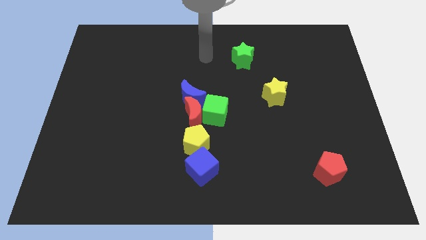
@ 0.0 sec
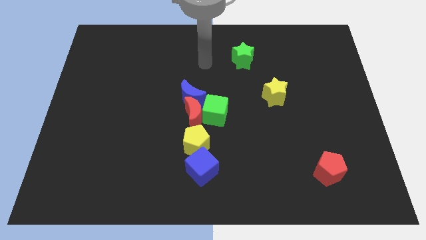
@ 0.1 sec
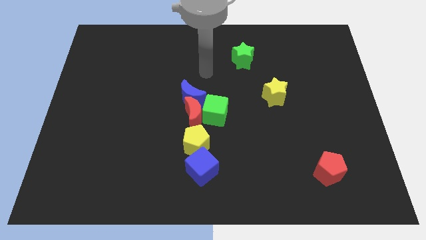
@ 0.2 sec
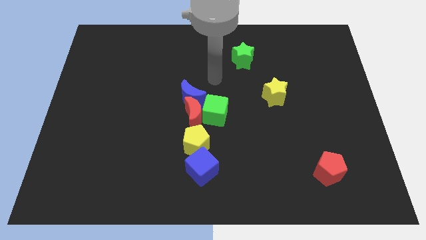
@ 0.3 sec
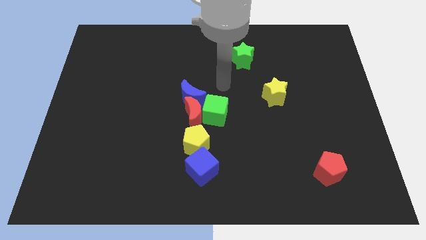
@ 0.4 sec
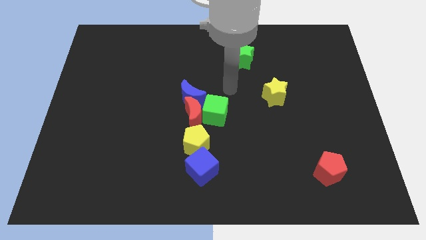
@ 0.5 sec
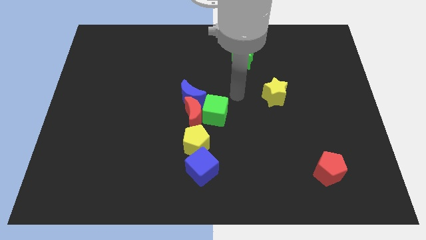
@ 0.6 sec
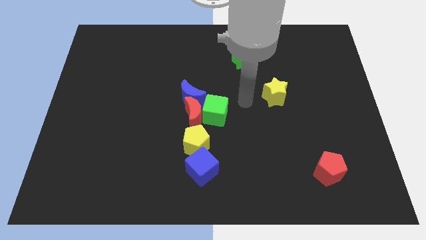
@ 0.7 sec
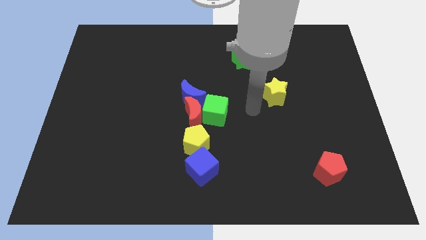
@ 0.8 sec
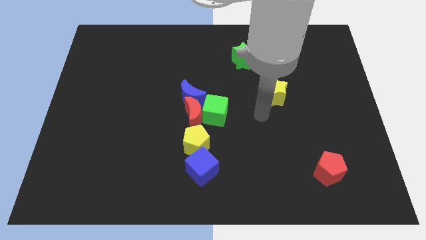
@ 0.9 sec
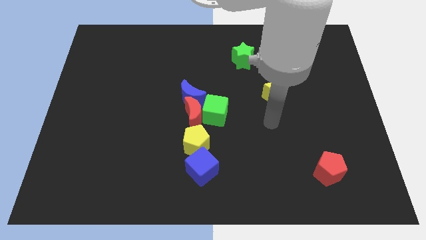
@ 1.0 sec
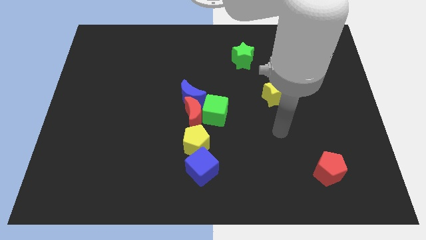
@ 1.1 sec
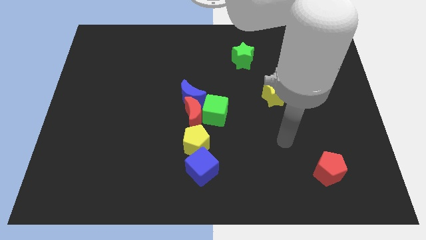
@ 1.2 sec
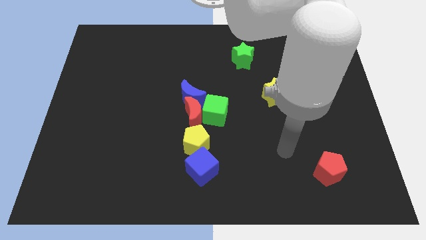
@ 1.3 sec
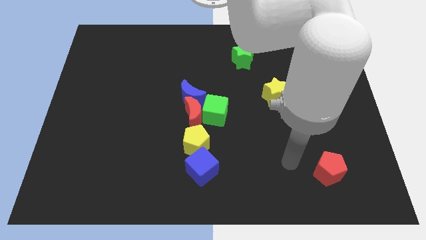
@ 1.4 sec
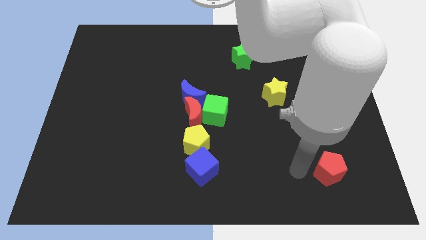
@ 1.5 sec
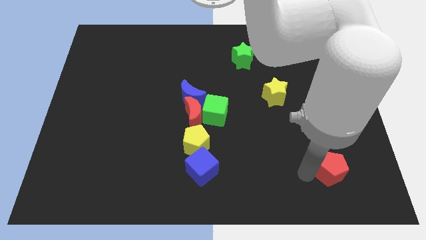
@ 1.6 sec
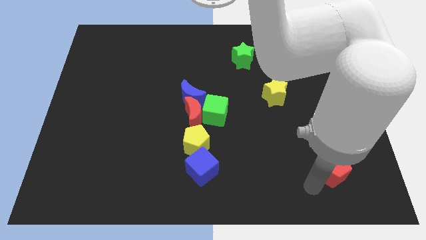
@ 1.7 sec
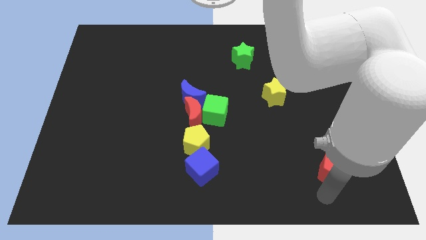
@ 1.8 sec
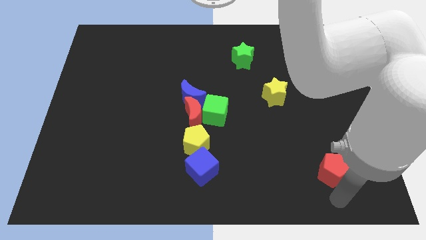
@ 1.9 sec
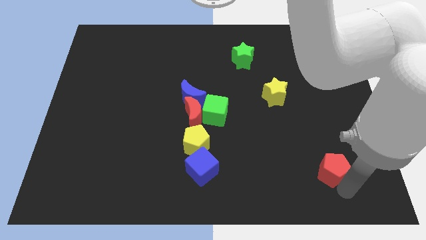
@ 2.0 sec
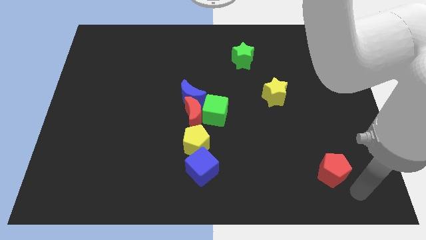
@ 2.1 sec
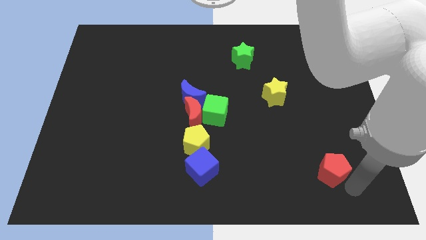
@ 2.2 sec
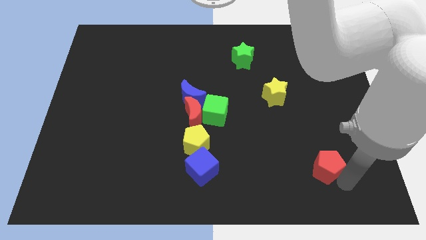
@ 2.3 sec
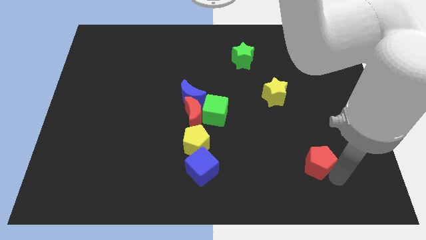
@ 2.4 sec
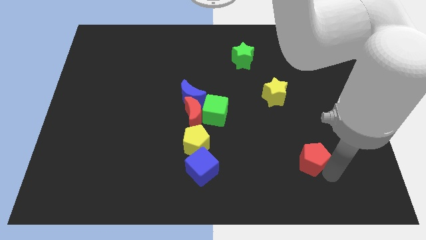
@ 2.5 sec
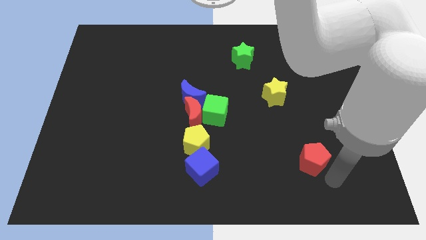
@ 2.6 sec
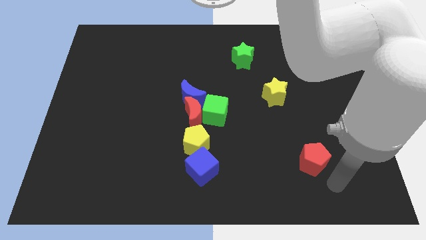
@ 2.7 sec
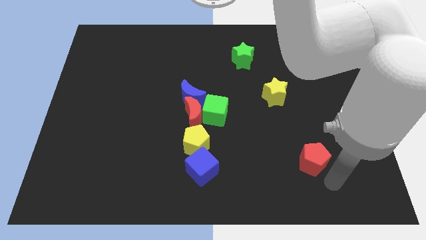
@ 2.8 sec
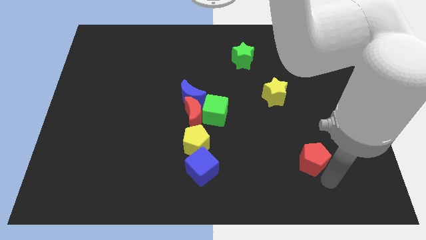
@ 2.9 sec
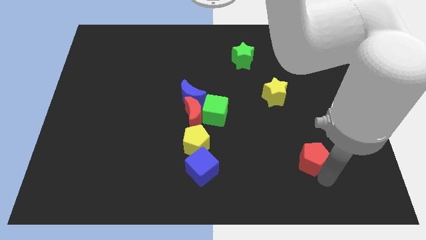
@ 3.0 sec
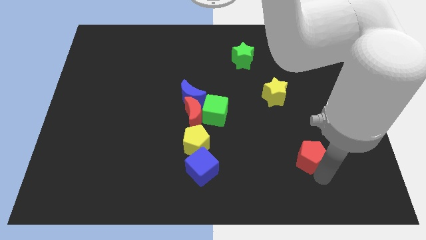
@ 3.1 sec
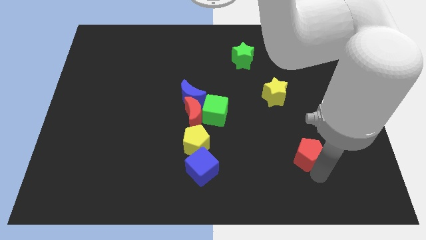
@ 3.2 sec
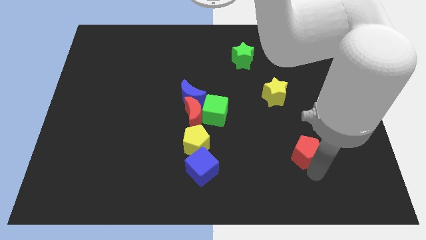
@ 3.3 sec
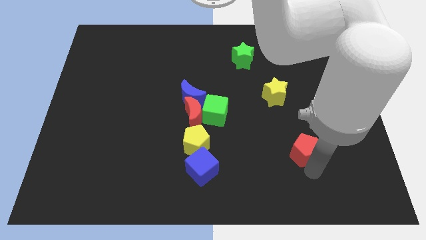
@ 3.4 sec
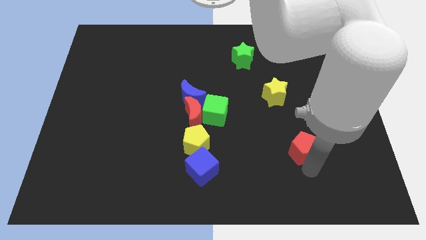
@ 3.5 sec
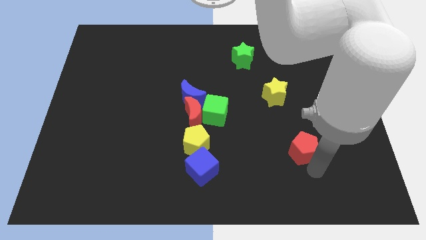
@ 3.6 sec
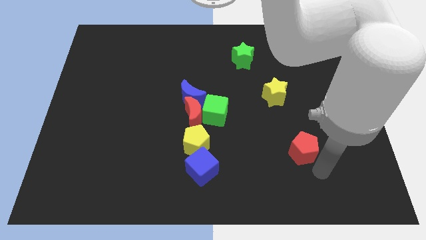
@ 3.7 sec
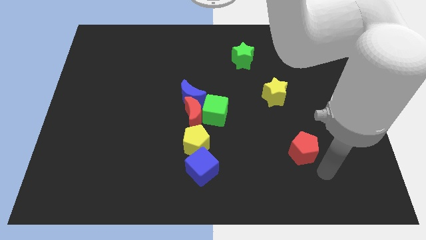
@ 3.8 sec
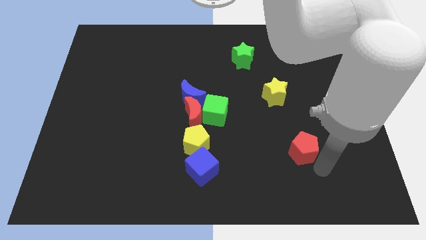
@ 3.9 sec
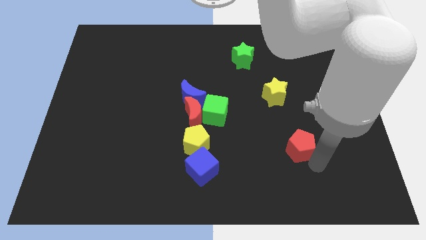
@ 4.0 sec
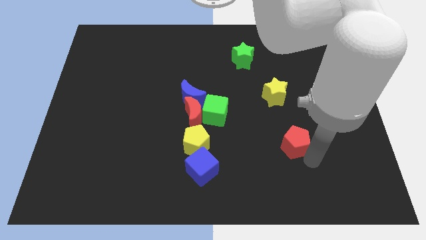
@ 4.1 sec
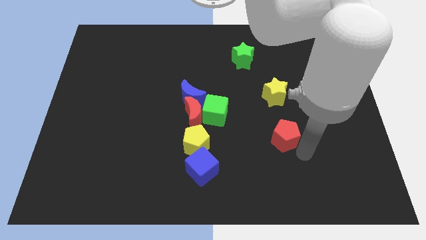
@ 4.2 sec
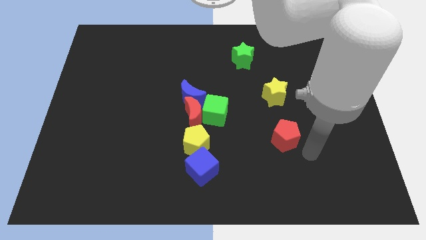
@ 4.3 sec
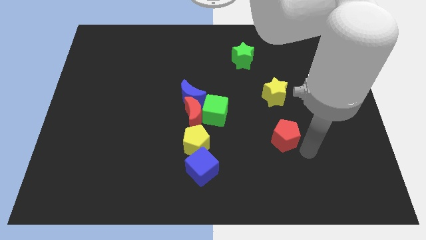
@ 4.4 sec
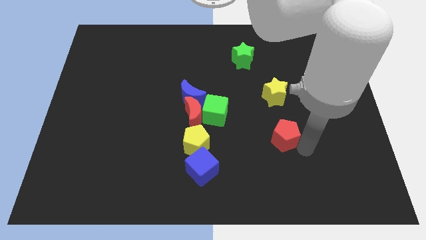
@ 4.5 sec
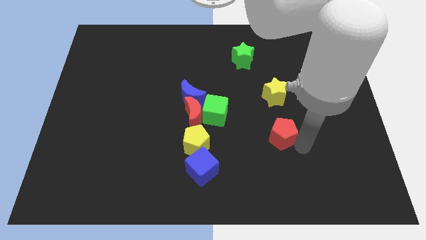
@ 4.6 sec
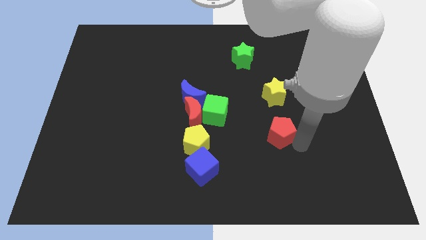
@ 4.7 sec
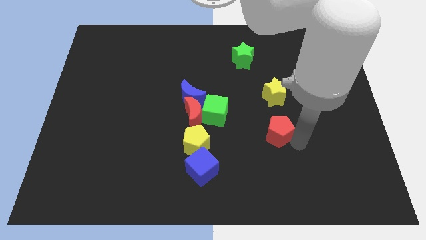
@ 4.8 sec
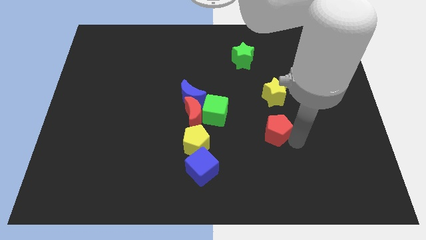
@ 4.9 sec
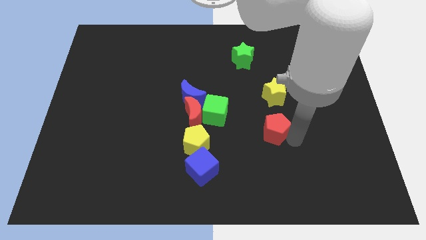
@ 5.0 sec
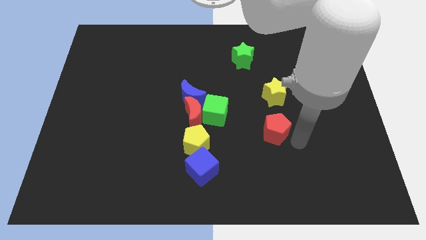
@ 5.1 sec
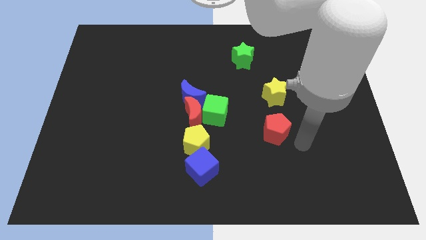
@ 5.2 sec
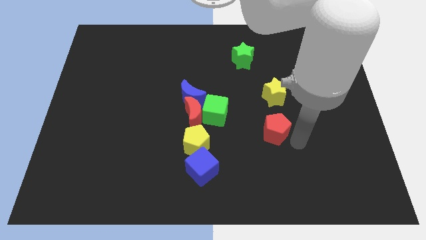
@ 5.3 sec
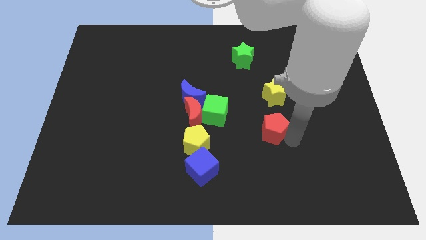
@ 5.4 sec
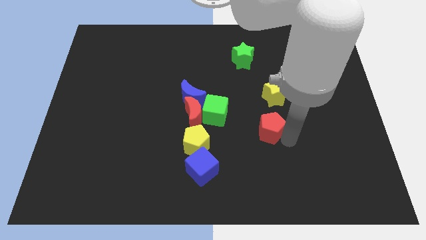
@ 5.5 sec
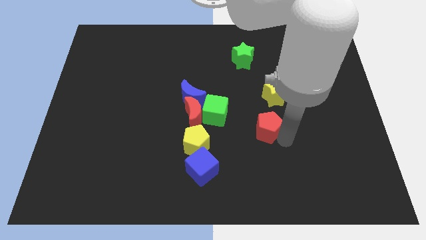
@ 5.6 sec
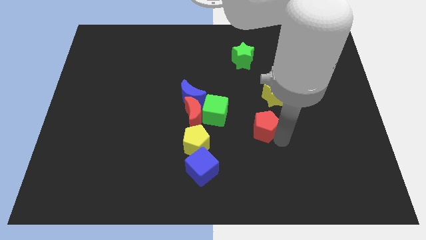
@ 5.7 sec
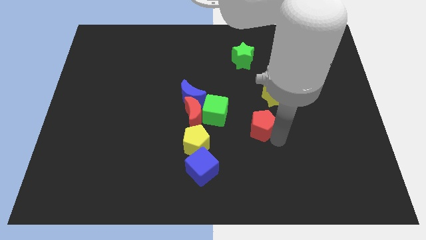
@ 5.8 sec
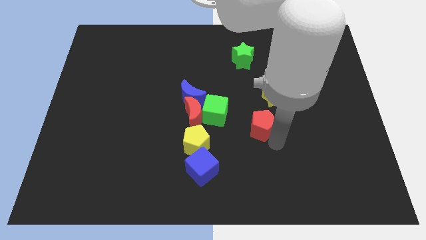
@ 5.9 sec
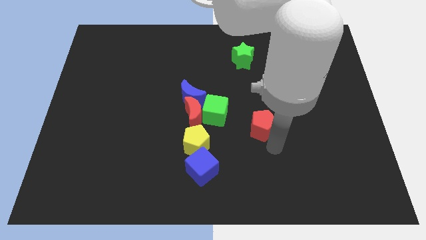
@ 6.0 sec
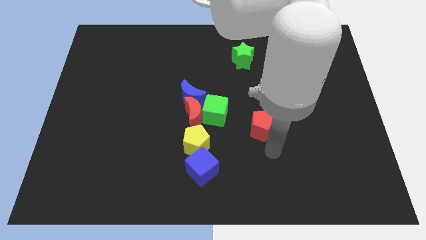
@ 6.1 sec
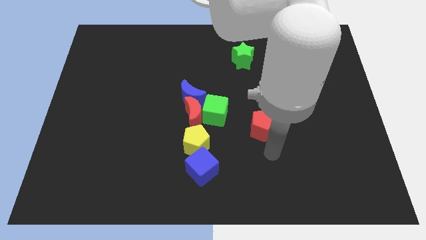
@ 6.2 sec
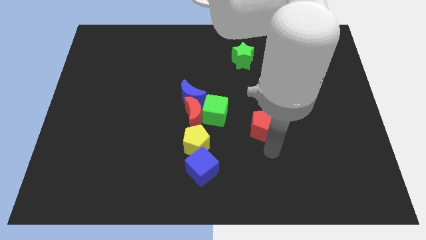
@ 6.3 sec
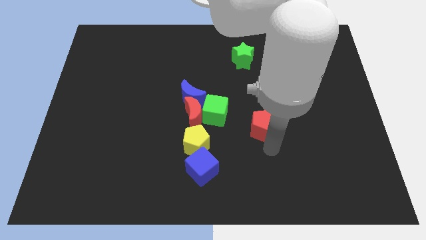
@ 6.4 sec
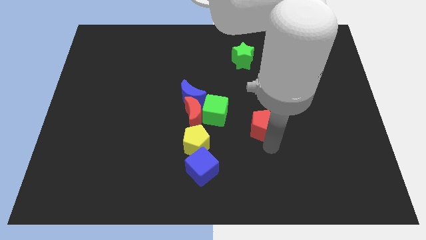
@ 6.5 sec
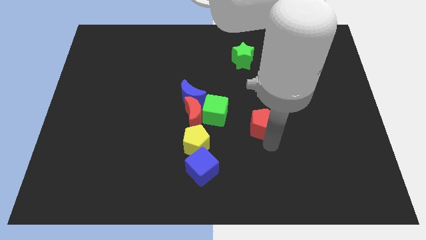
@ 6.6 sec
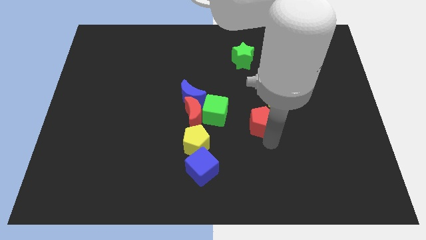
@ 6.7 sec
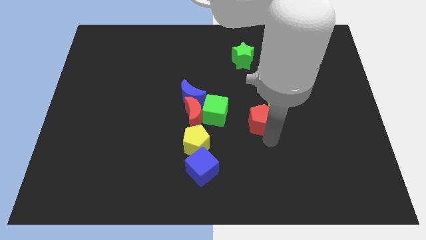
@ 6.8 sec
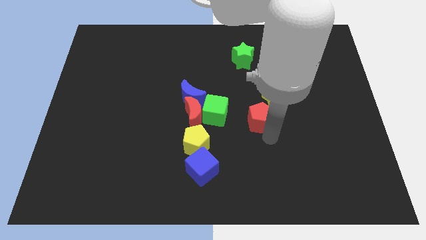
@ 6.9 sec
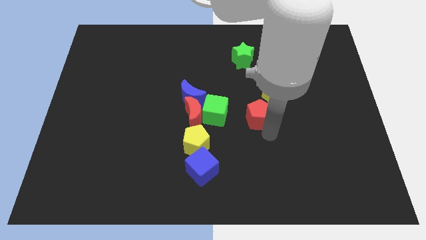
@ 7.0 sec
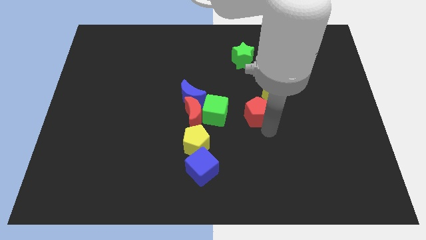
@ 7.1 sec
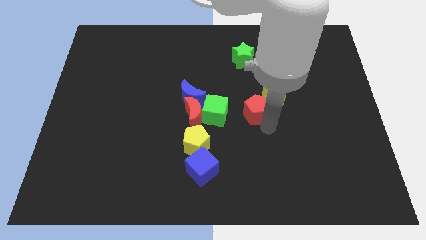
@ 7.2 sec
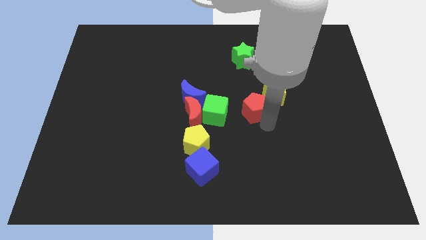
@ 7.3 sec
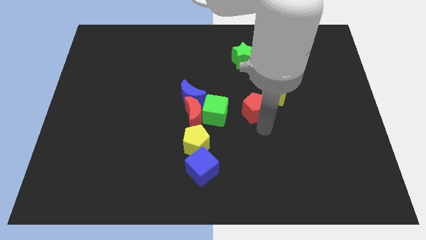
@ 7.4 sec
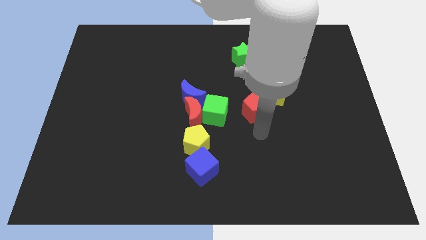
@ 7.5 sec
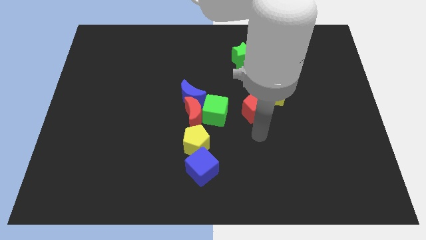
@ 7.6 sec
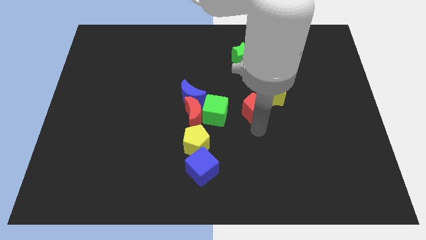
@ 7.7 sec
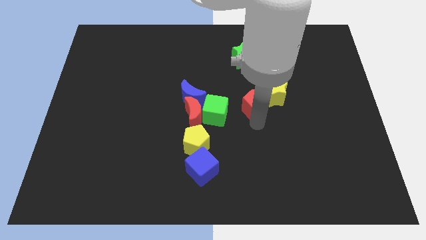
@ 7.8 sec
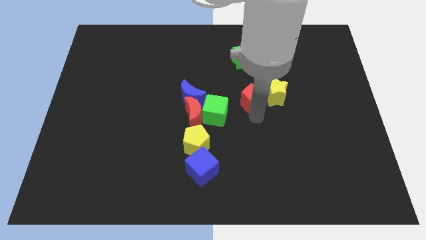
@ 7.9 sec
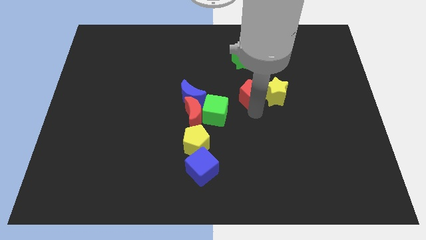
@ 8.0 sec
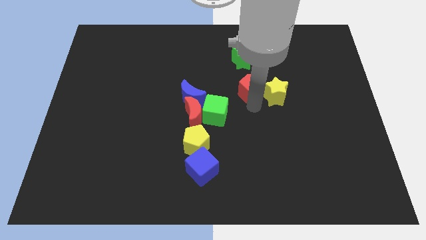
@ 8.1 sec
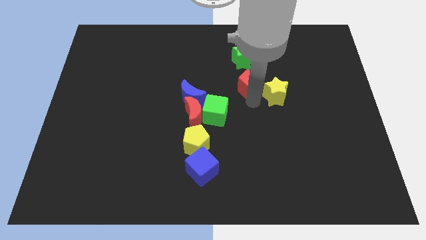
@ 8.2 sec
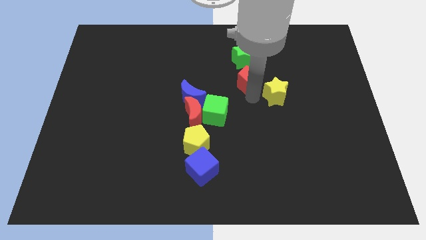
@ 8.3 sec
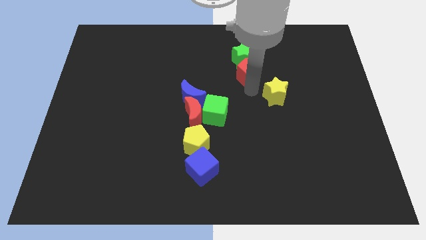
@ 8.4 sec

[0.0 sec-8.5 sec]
slide the red pentagon close to the green star
